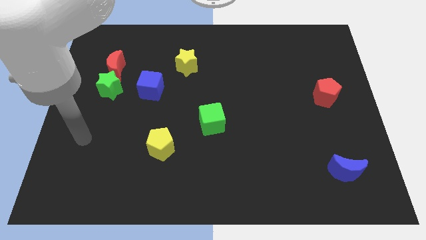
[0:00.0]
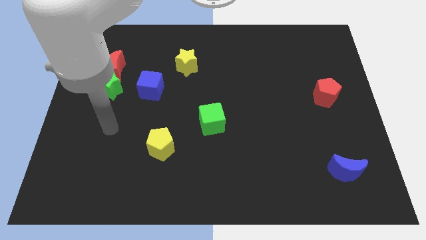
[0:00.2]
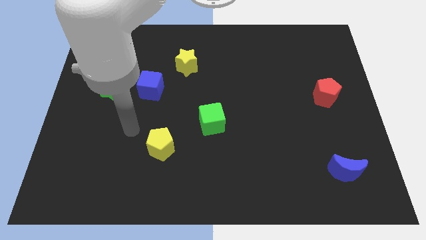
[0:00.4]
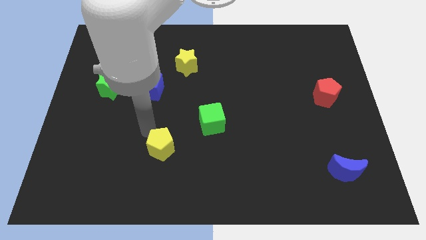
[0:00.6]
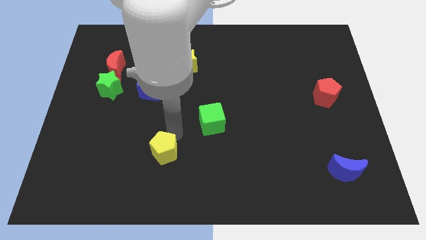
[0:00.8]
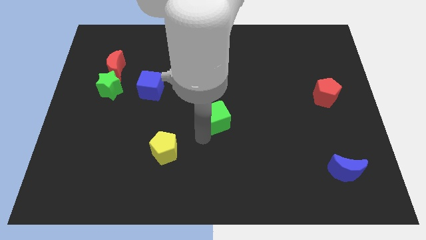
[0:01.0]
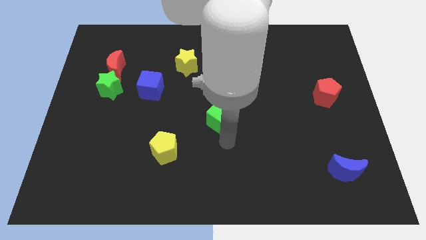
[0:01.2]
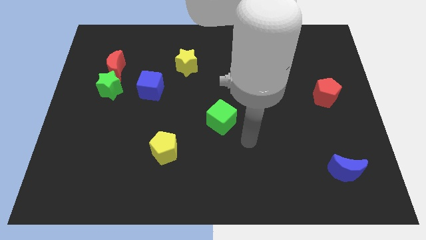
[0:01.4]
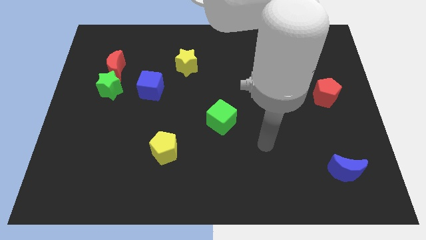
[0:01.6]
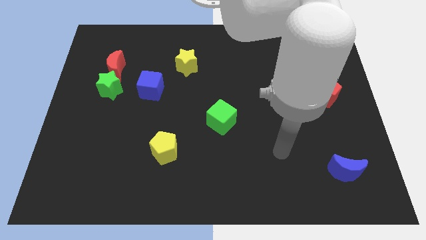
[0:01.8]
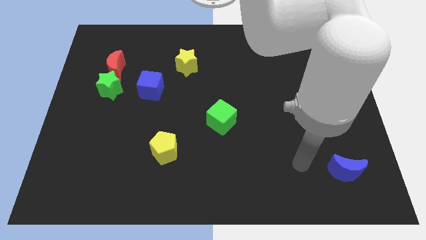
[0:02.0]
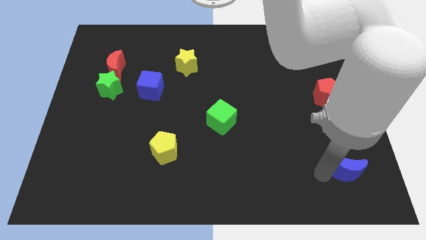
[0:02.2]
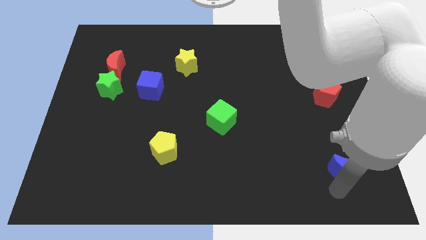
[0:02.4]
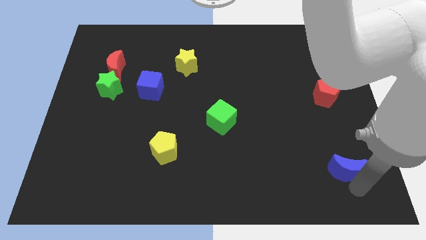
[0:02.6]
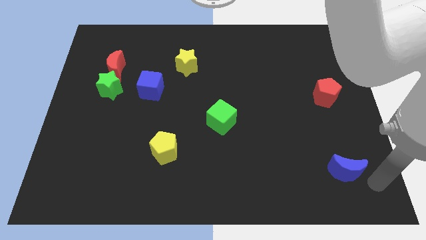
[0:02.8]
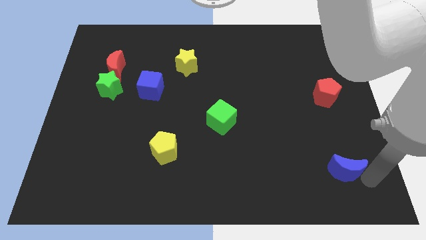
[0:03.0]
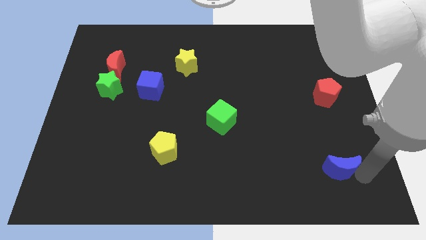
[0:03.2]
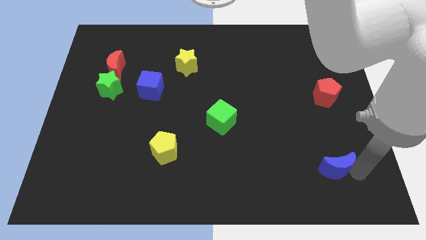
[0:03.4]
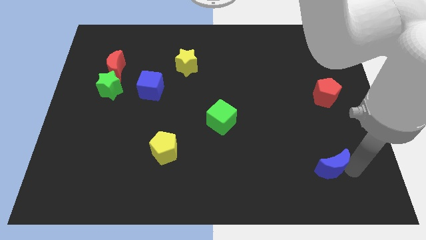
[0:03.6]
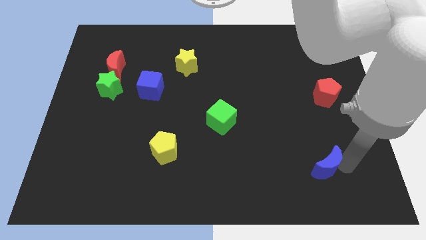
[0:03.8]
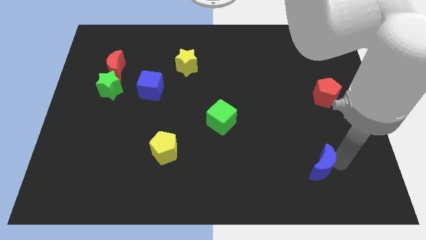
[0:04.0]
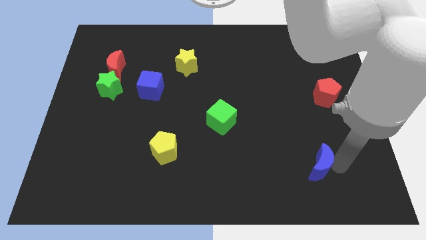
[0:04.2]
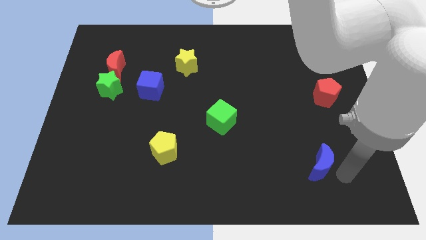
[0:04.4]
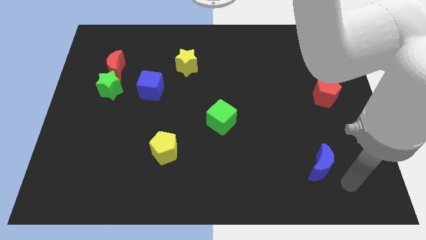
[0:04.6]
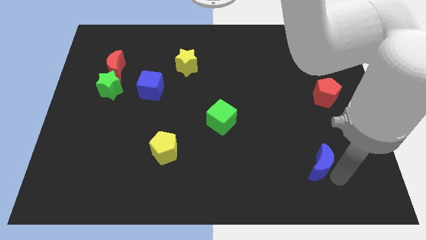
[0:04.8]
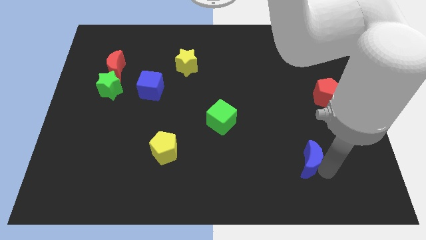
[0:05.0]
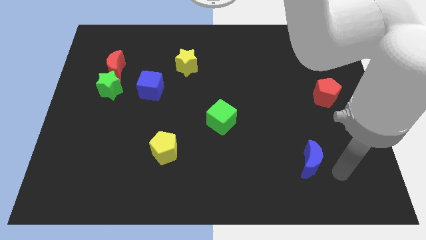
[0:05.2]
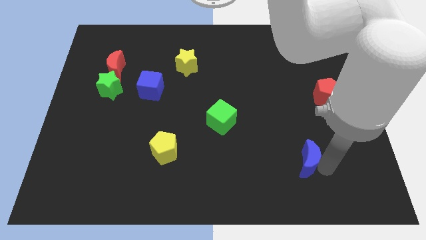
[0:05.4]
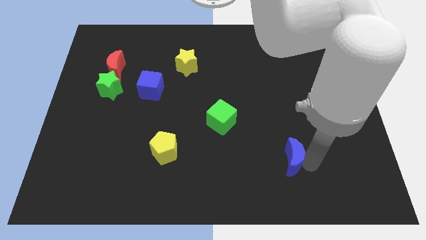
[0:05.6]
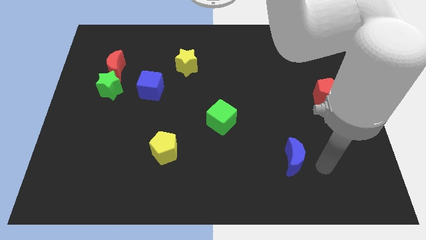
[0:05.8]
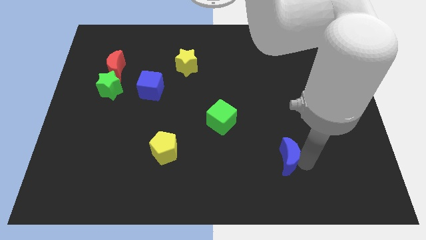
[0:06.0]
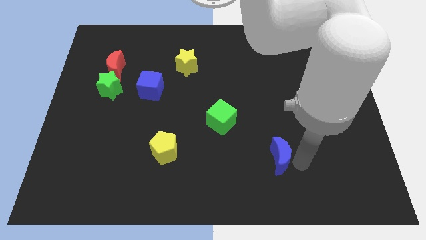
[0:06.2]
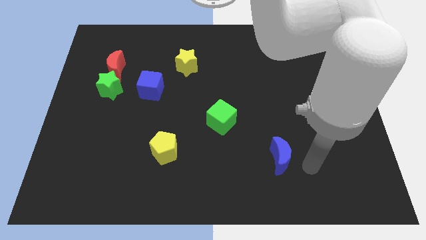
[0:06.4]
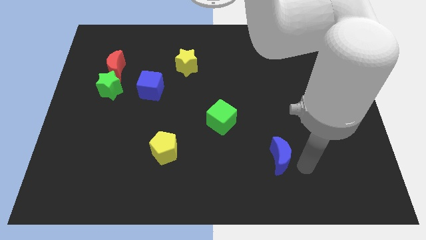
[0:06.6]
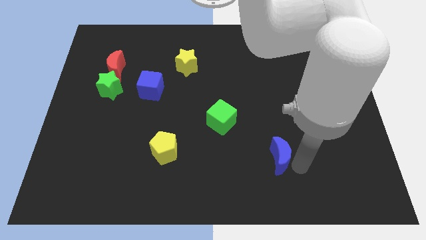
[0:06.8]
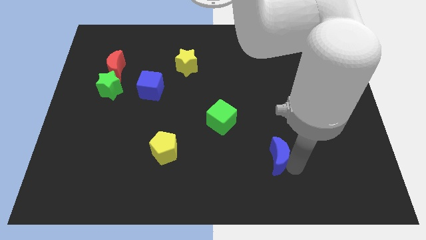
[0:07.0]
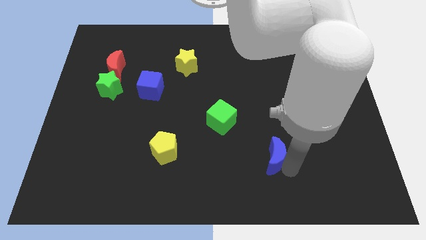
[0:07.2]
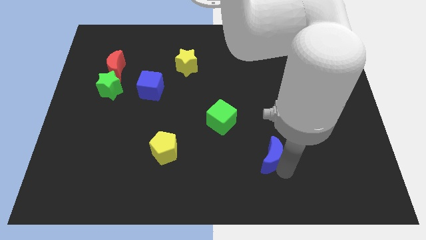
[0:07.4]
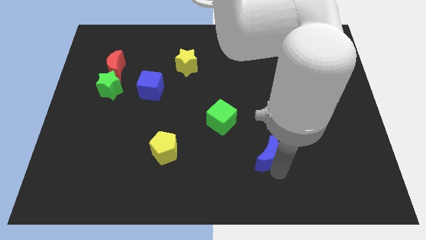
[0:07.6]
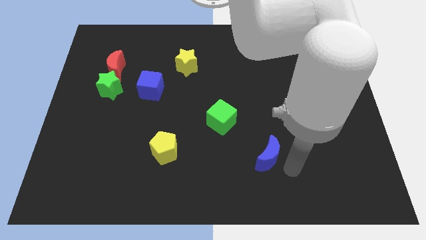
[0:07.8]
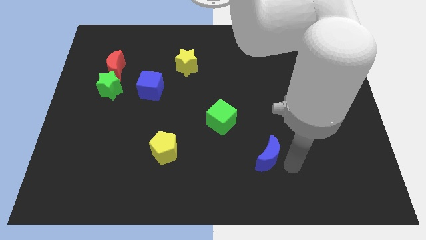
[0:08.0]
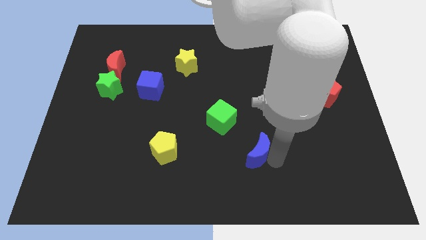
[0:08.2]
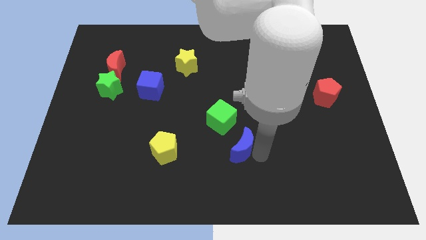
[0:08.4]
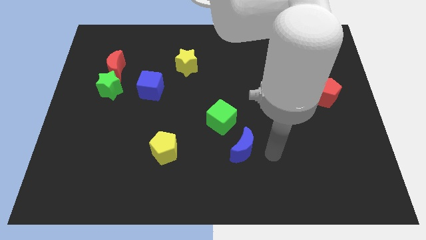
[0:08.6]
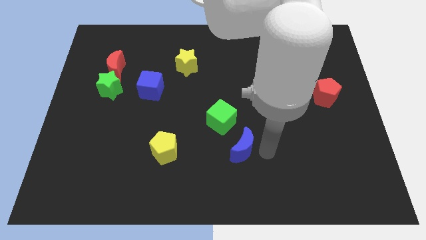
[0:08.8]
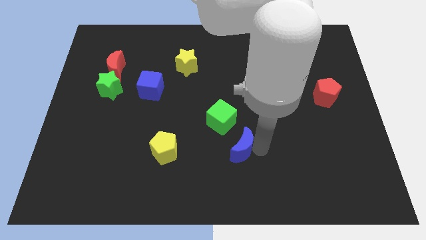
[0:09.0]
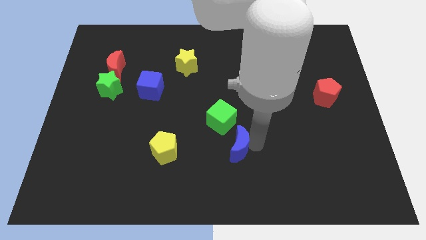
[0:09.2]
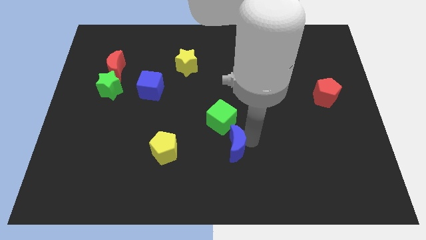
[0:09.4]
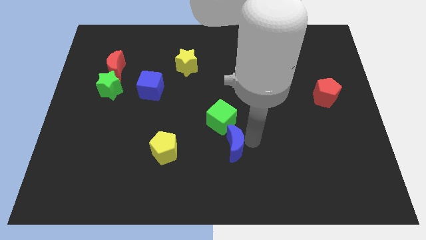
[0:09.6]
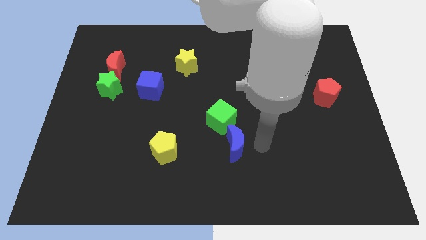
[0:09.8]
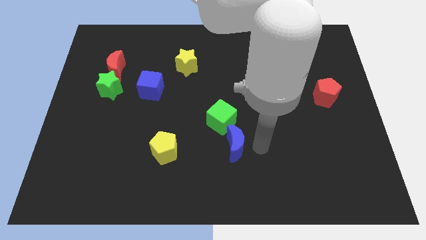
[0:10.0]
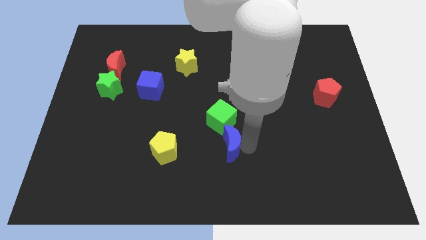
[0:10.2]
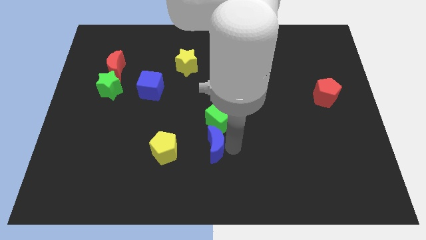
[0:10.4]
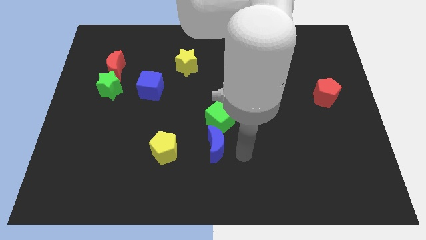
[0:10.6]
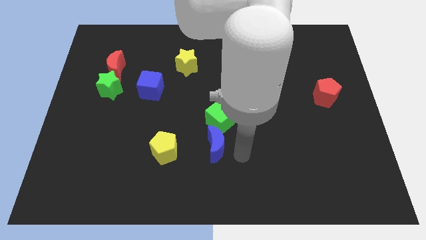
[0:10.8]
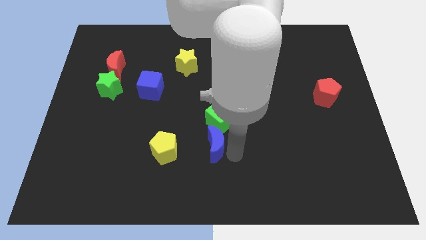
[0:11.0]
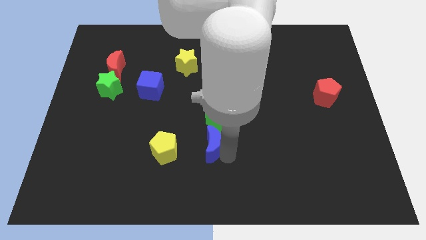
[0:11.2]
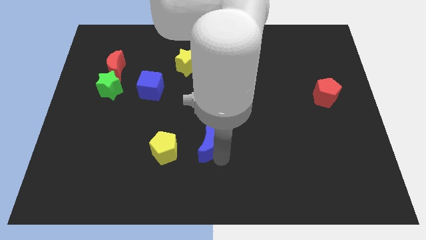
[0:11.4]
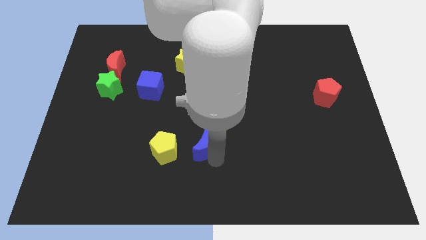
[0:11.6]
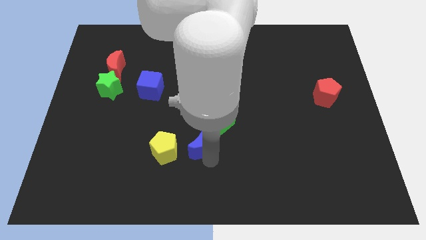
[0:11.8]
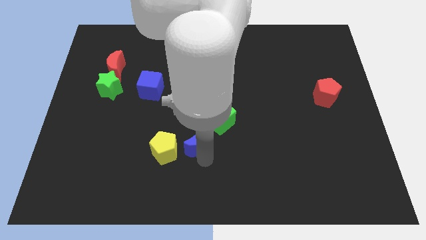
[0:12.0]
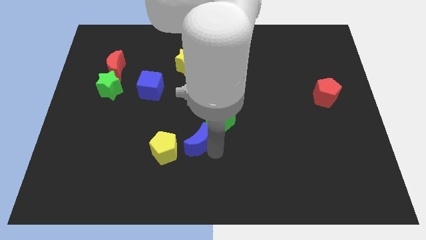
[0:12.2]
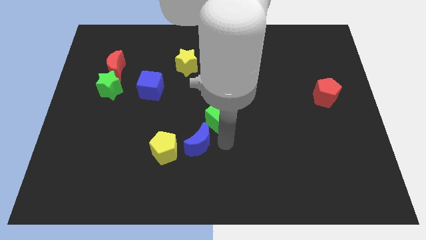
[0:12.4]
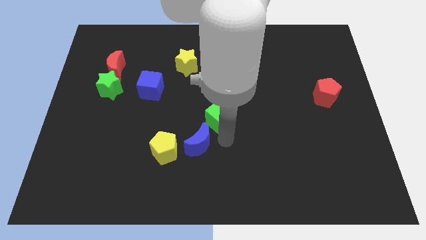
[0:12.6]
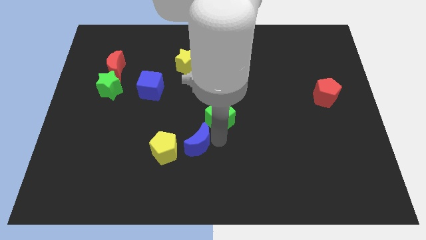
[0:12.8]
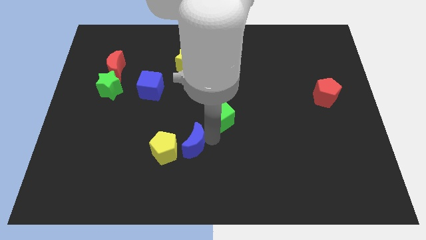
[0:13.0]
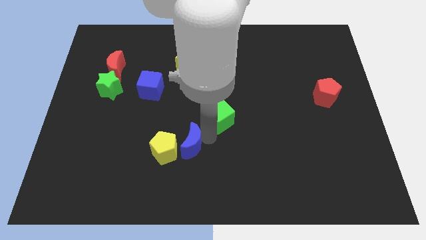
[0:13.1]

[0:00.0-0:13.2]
move the blue moon next to the yellow pentagon

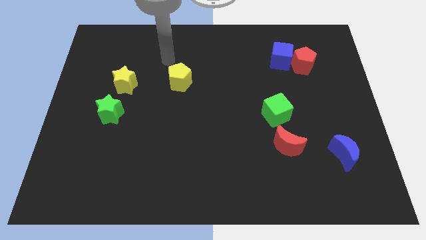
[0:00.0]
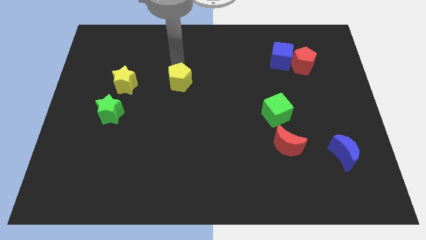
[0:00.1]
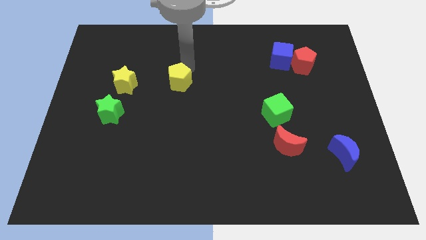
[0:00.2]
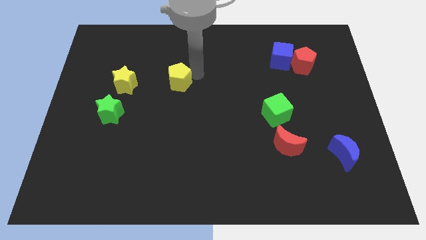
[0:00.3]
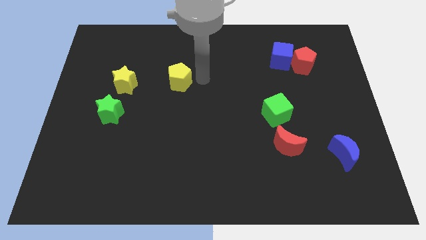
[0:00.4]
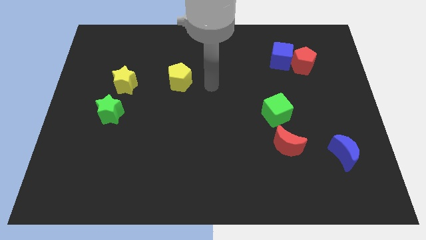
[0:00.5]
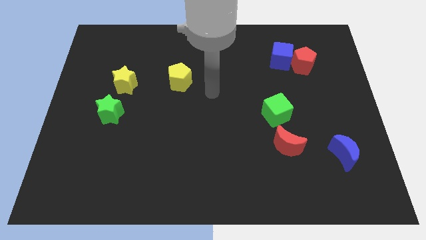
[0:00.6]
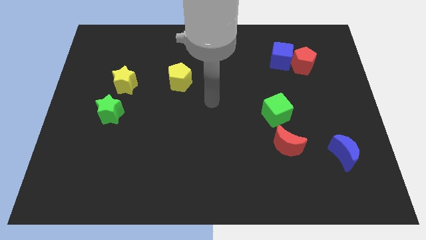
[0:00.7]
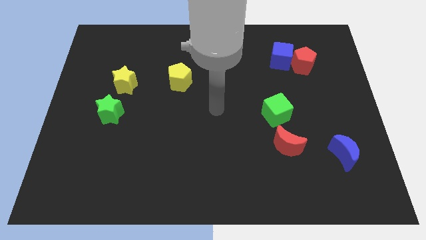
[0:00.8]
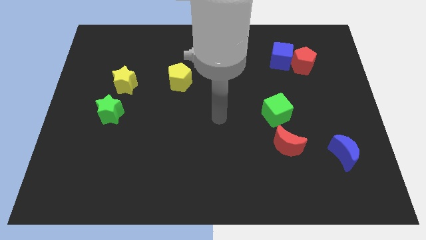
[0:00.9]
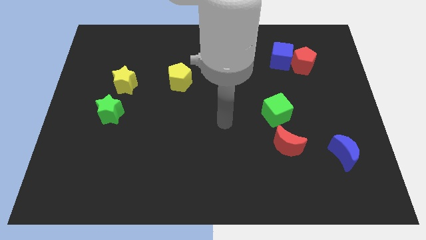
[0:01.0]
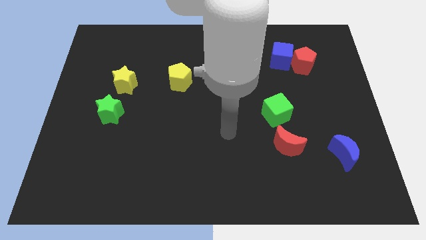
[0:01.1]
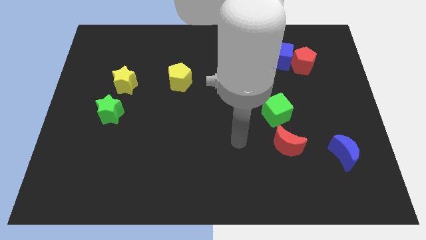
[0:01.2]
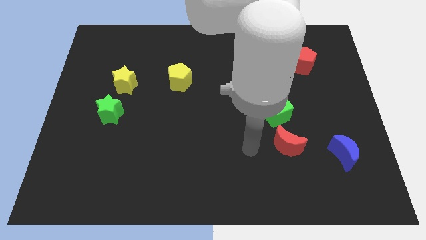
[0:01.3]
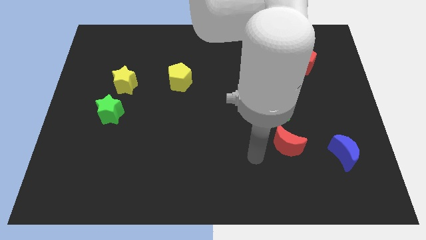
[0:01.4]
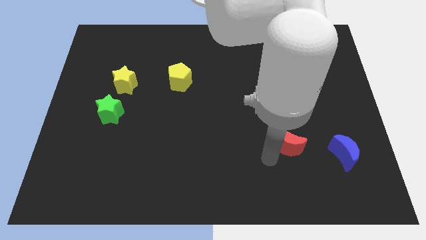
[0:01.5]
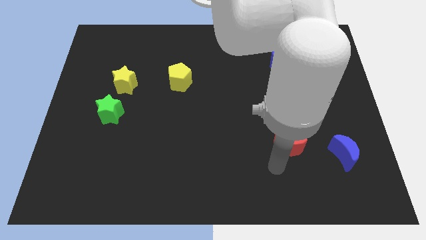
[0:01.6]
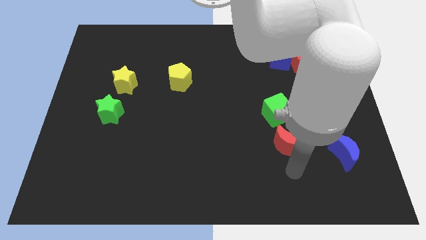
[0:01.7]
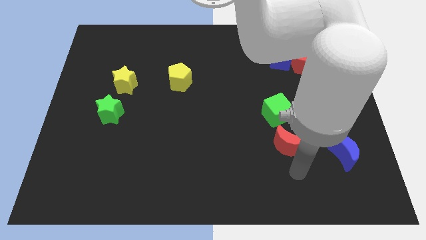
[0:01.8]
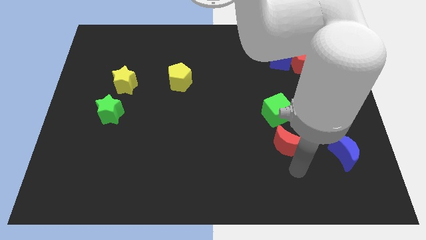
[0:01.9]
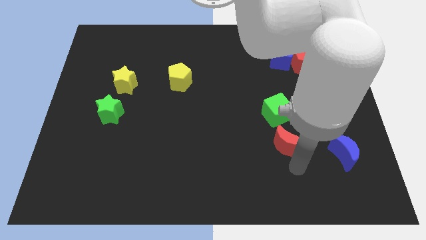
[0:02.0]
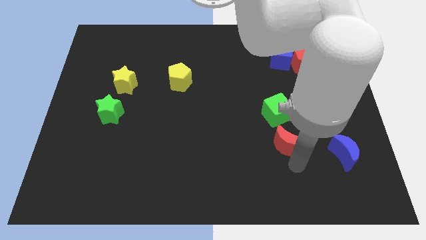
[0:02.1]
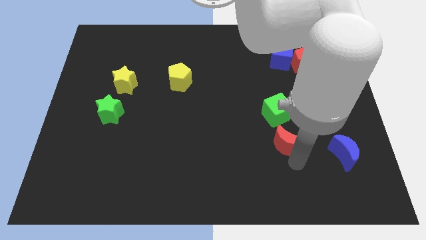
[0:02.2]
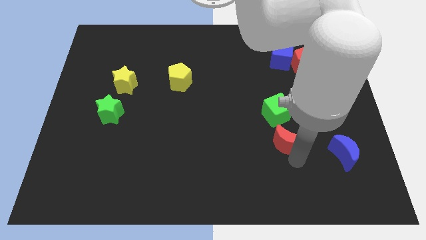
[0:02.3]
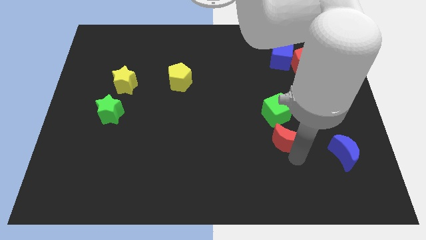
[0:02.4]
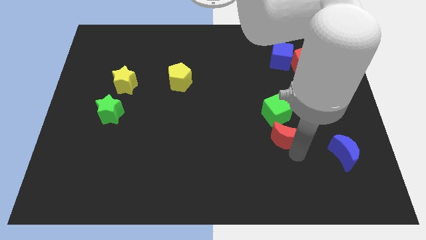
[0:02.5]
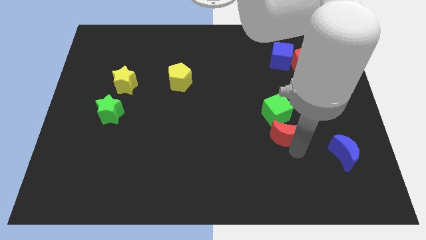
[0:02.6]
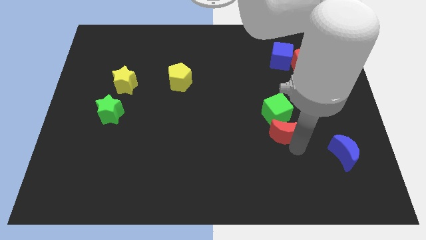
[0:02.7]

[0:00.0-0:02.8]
push the red moon to the green cube
